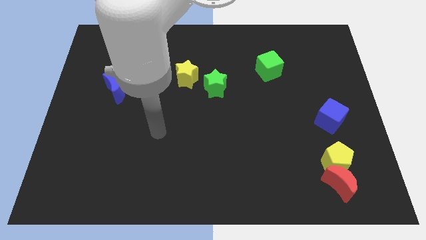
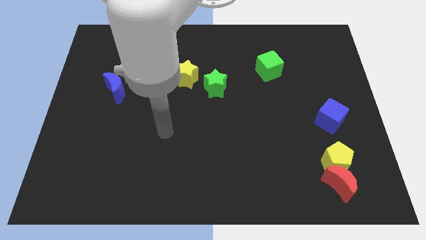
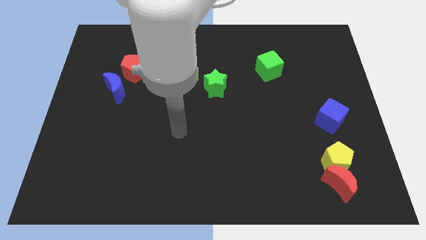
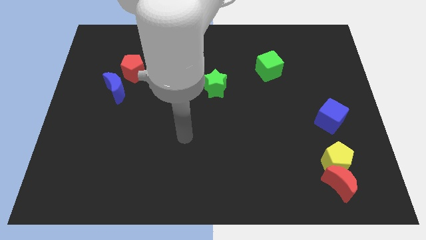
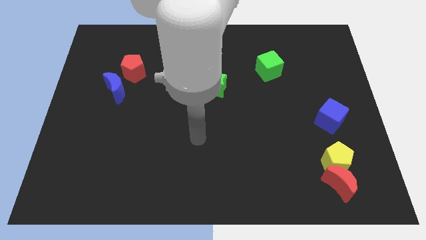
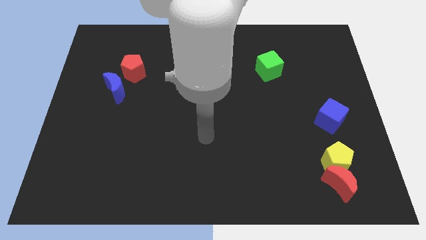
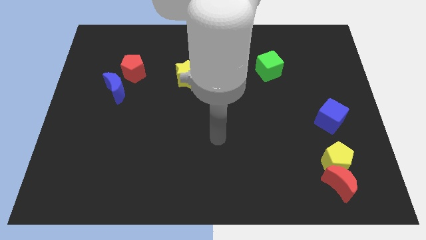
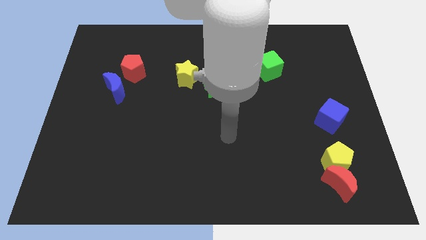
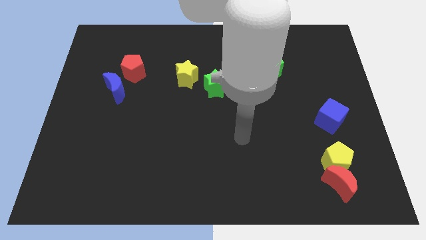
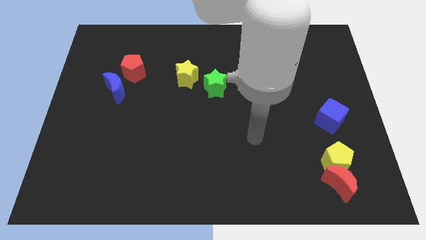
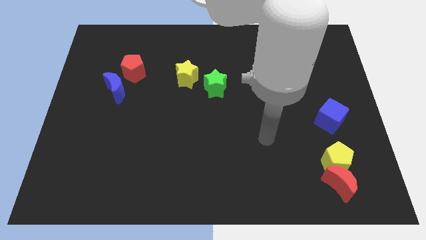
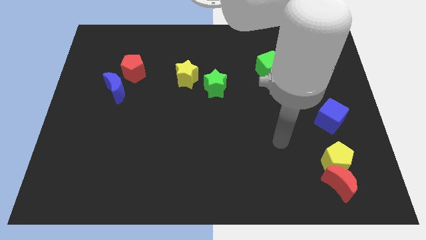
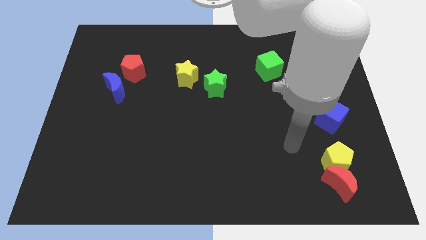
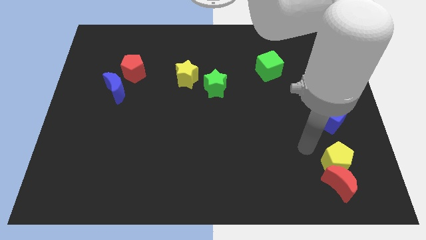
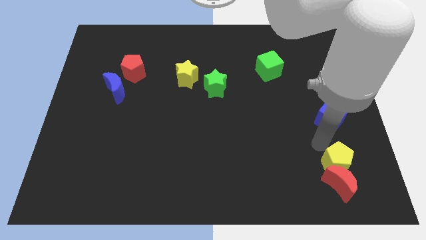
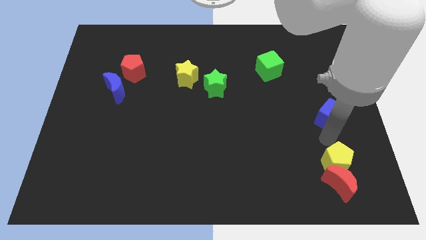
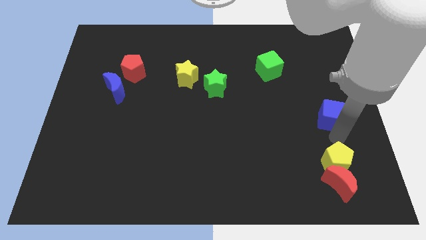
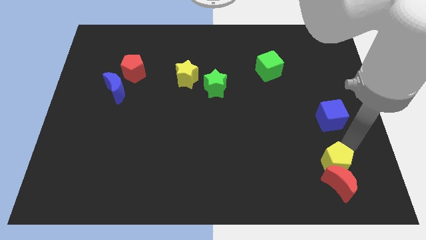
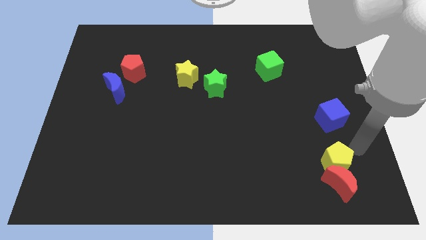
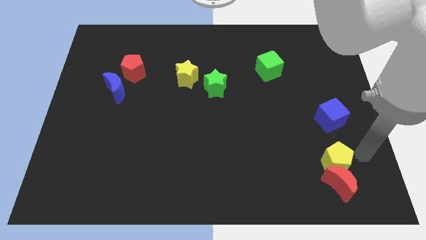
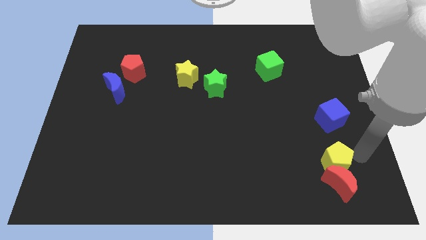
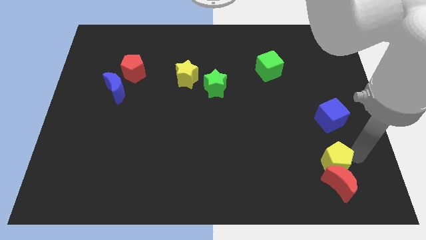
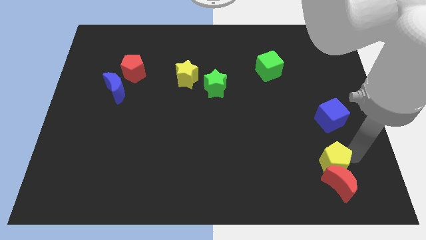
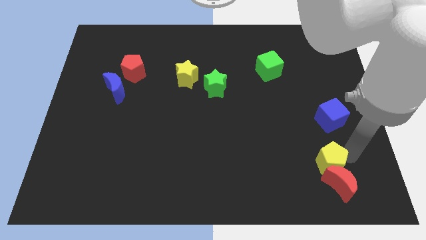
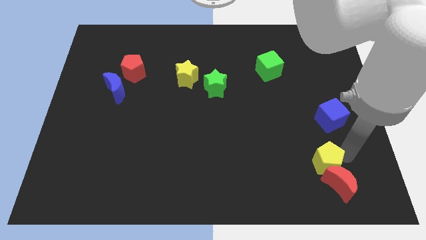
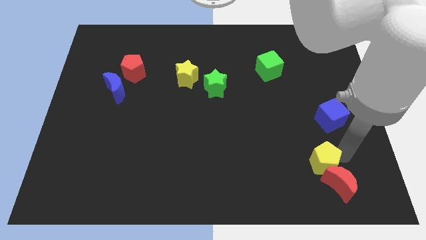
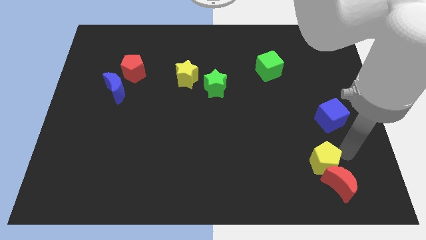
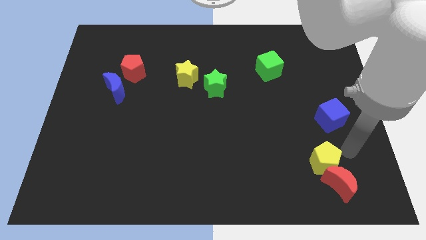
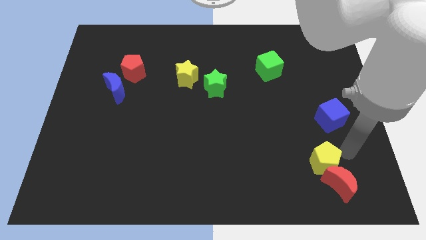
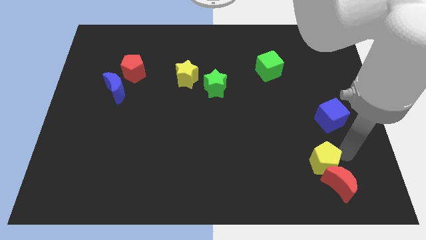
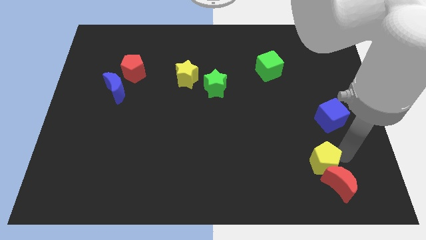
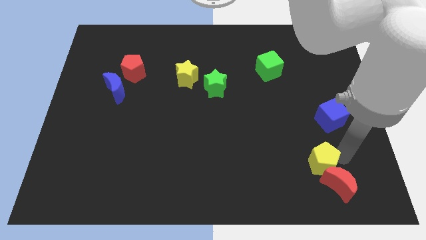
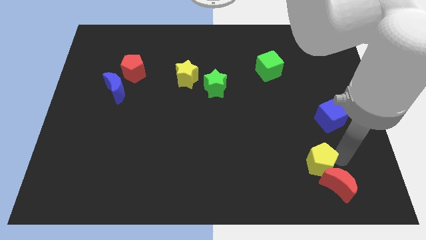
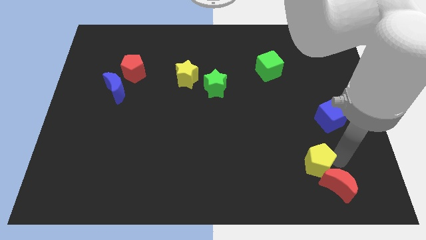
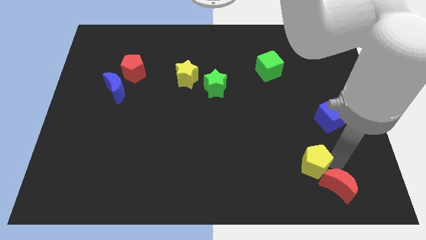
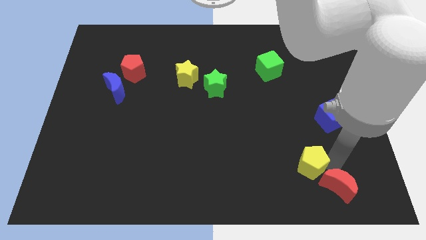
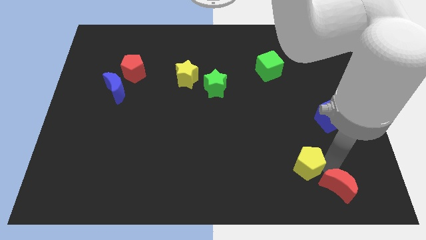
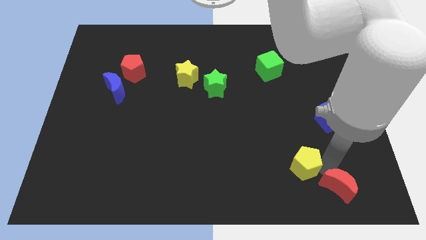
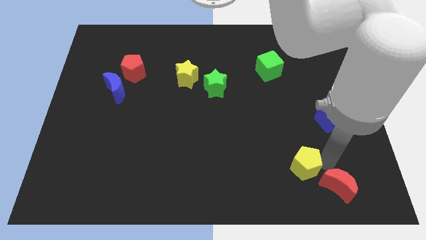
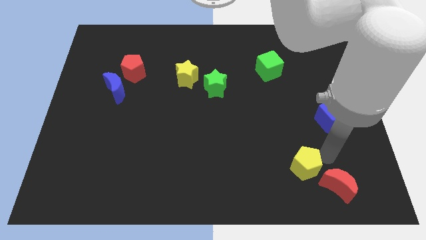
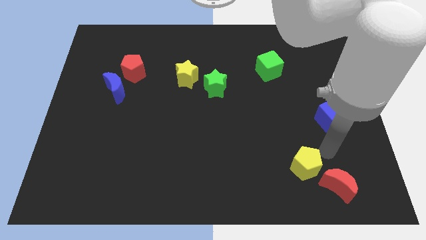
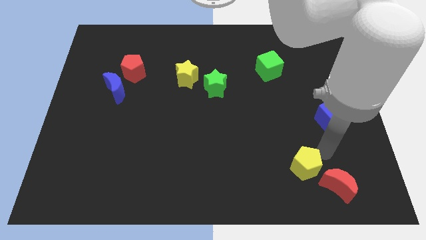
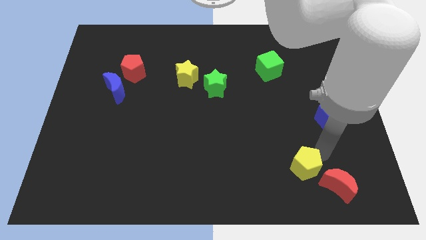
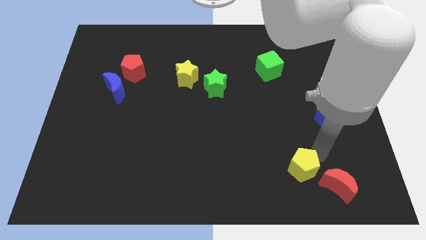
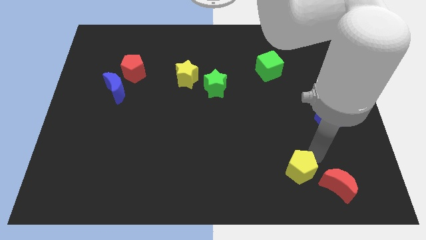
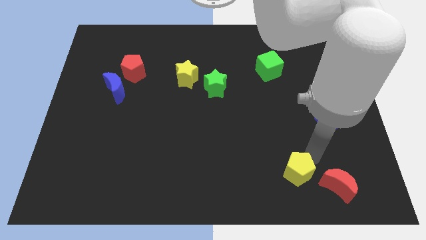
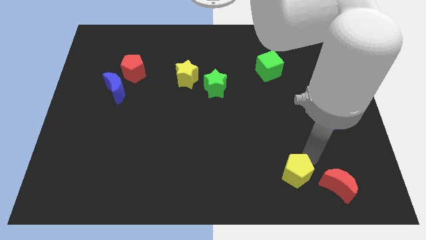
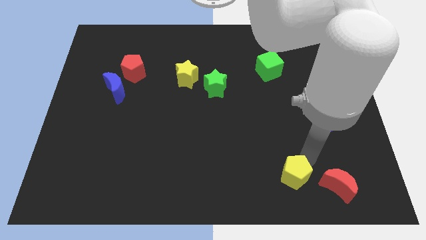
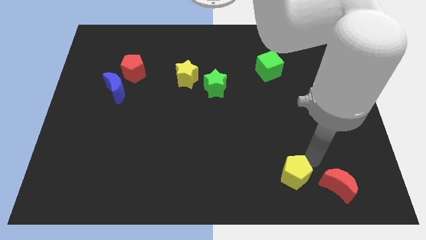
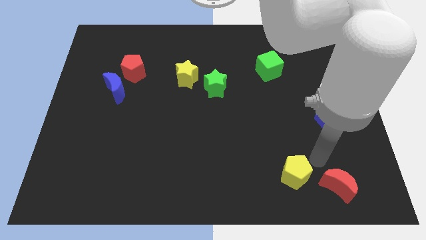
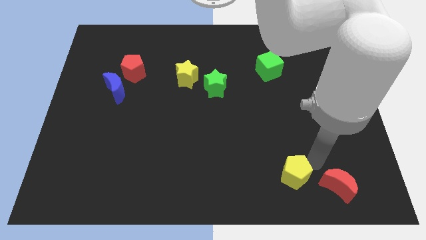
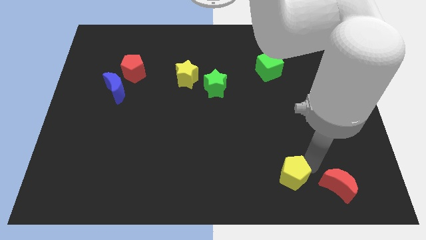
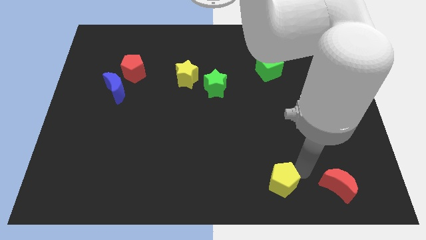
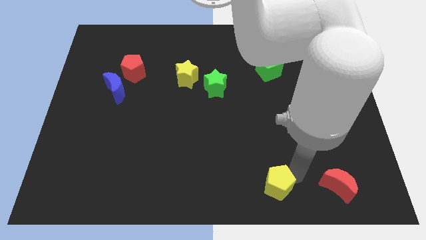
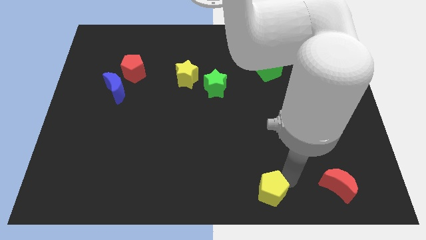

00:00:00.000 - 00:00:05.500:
slide the yellow pentagon to the bottom side

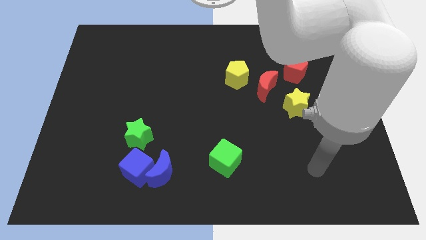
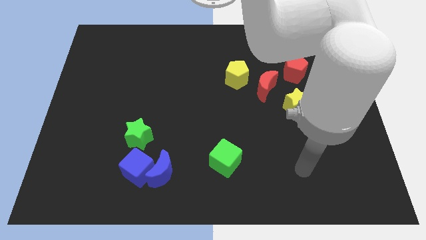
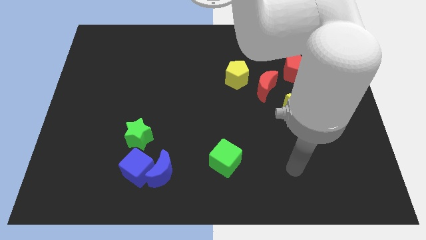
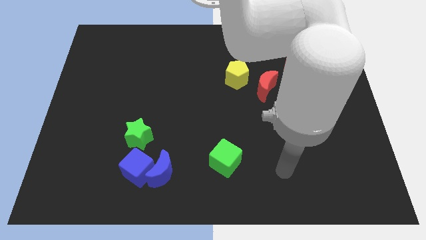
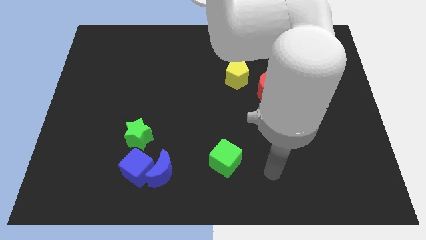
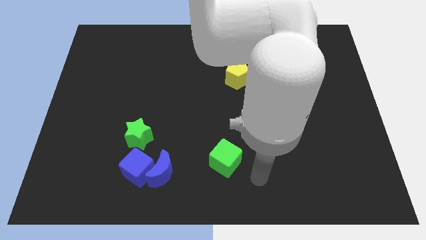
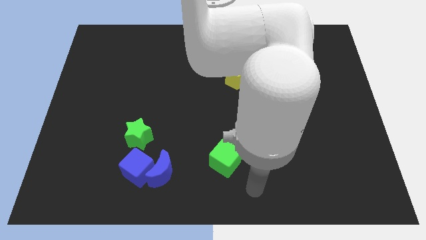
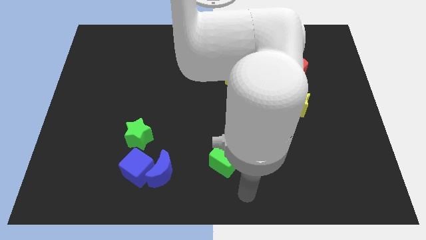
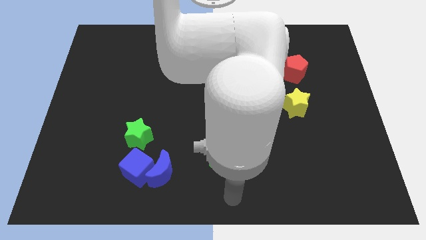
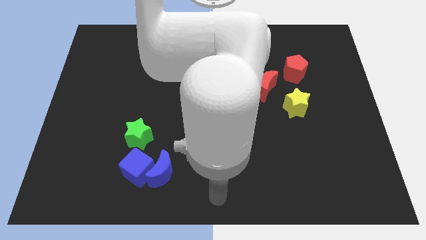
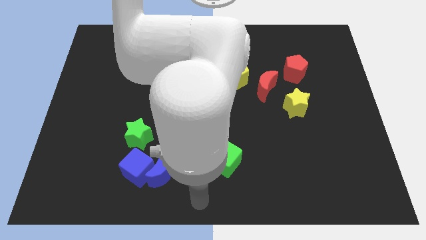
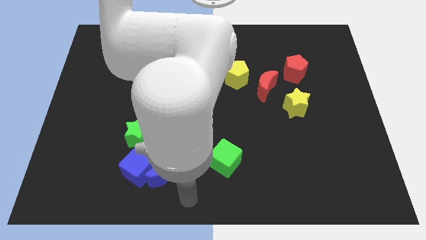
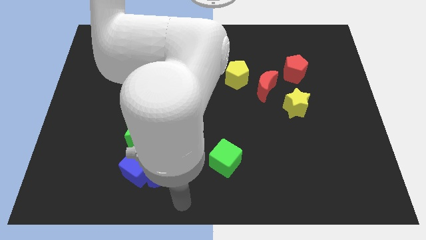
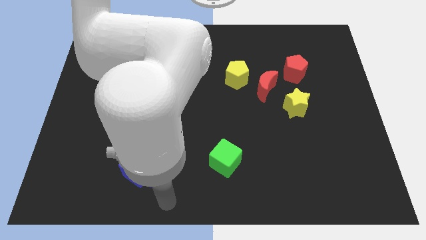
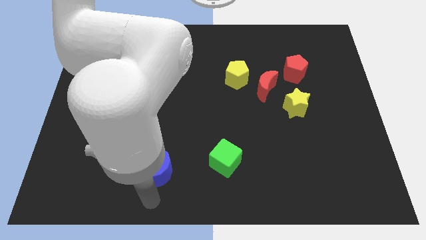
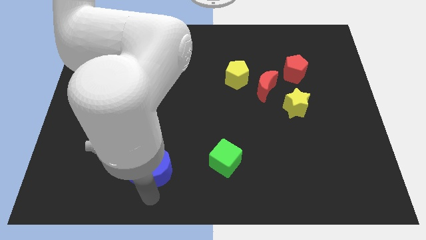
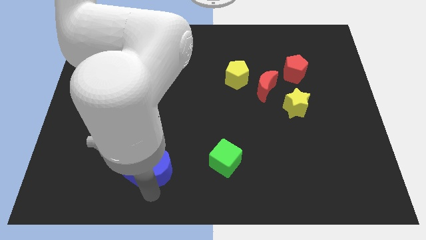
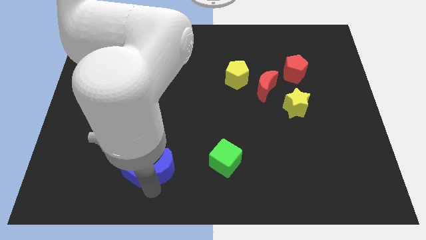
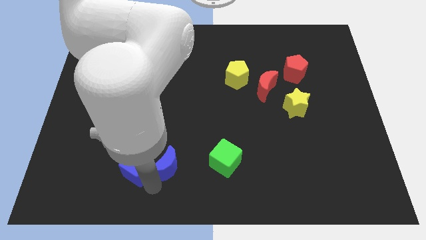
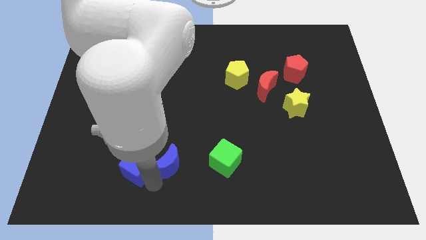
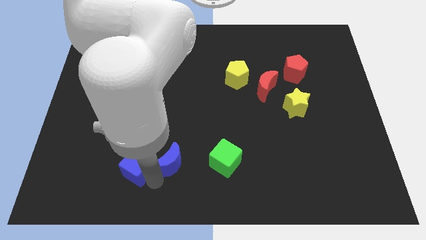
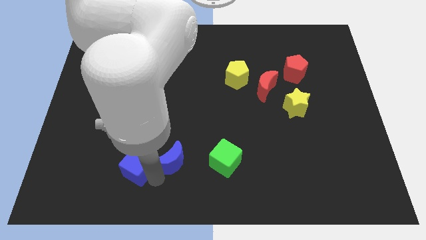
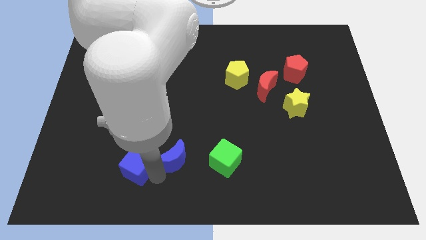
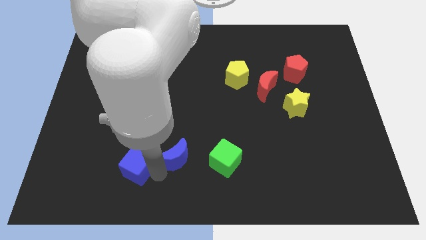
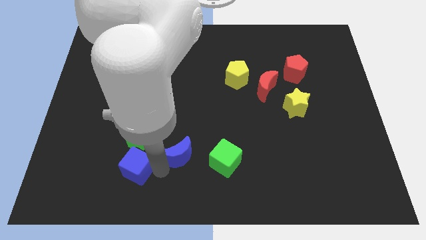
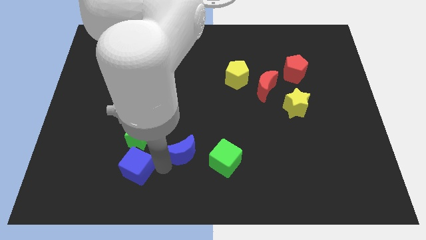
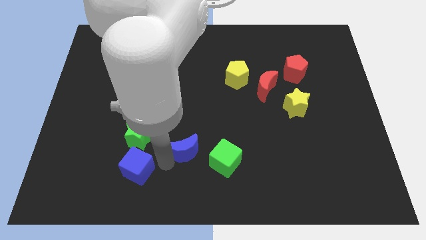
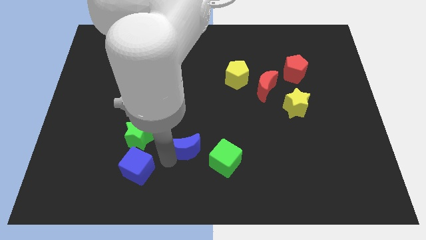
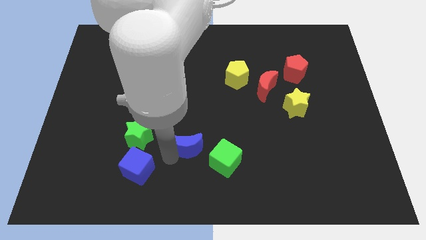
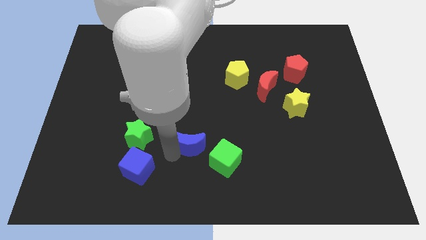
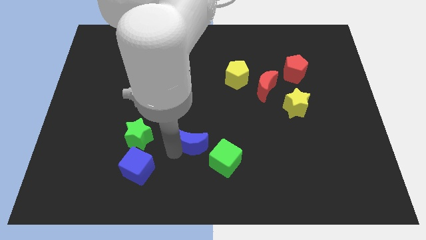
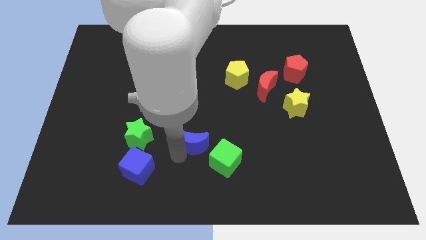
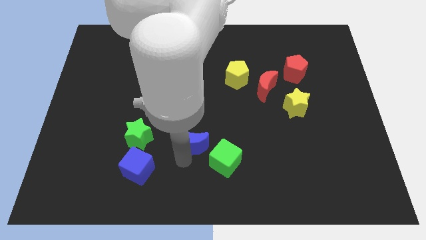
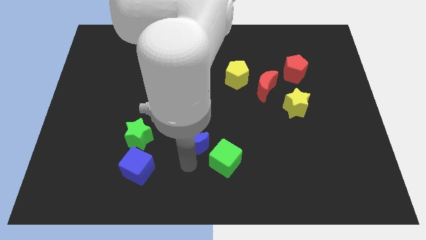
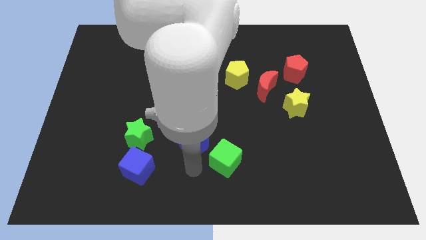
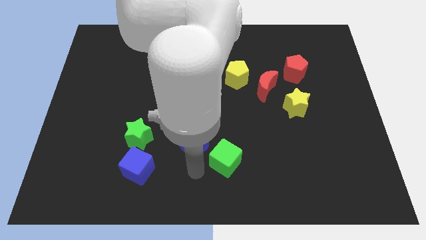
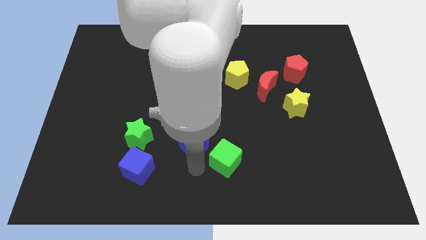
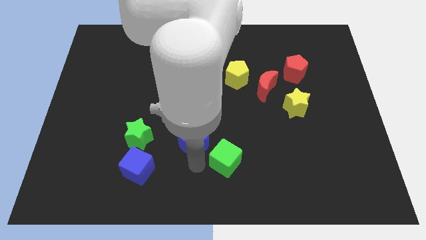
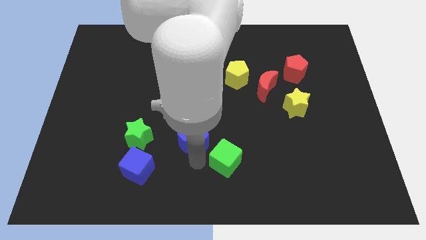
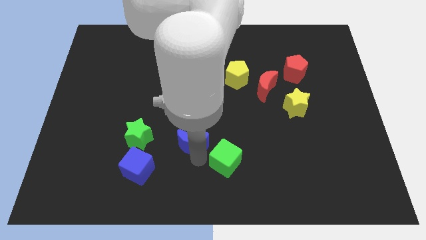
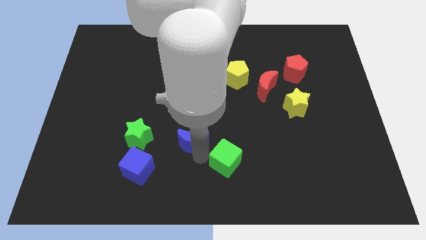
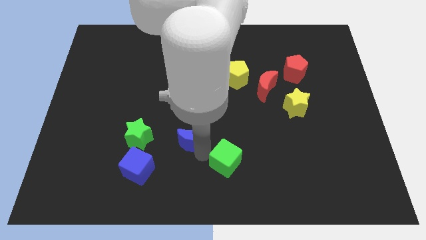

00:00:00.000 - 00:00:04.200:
push the blue moon to the middle of the board
